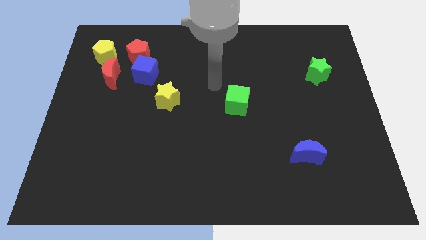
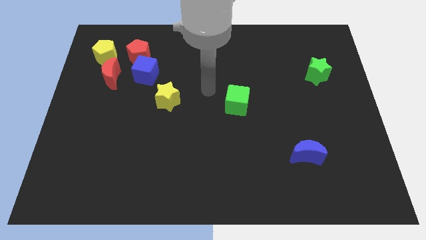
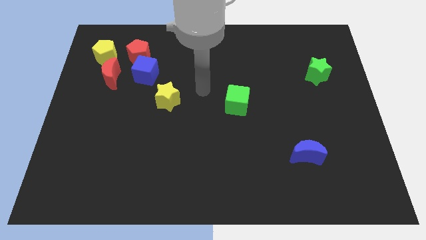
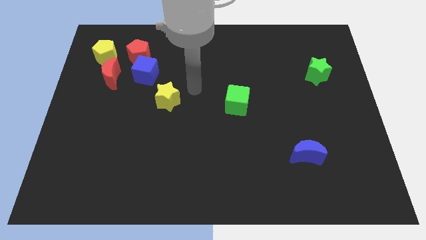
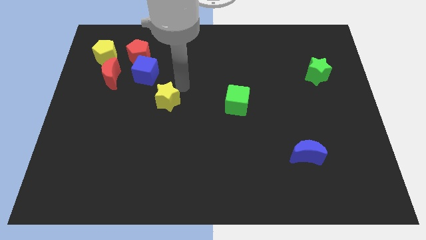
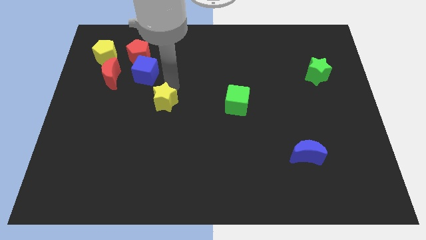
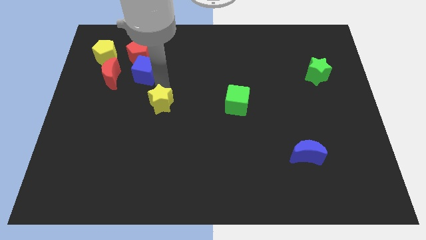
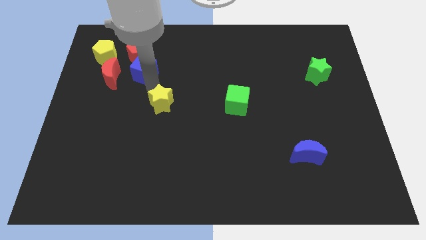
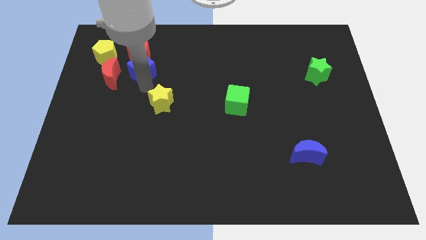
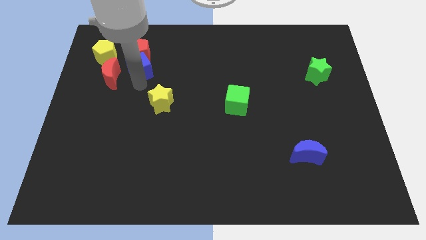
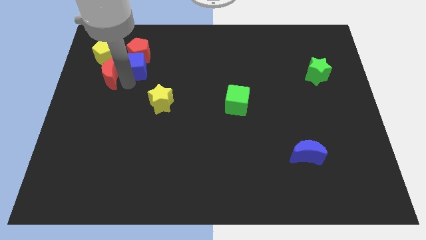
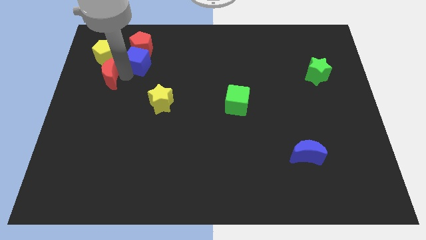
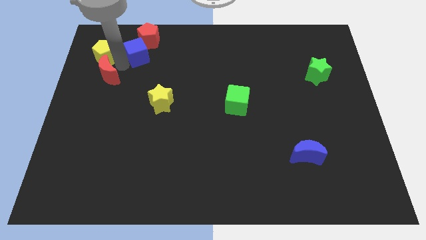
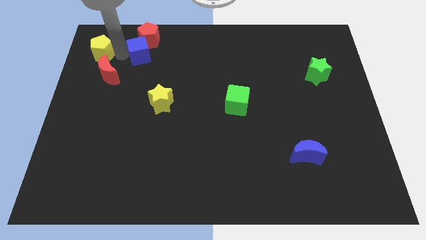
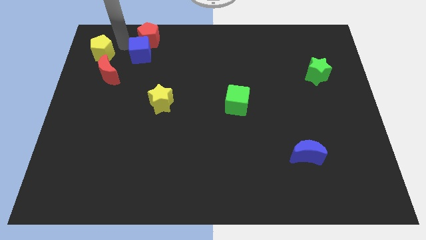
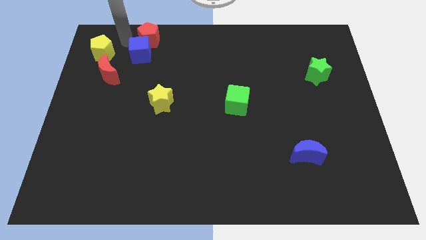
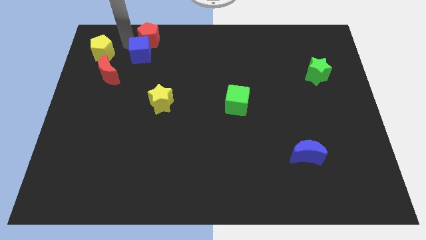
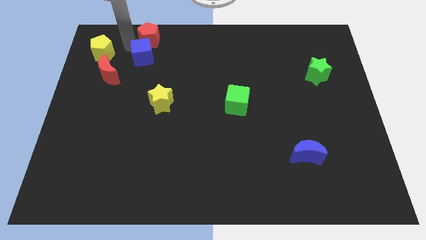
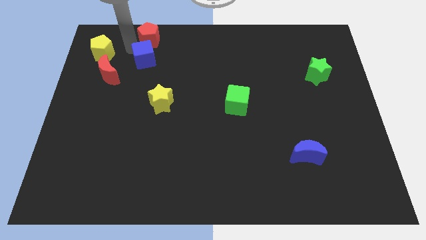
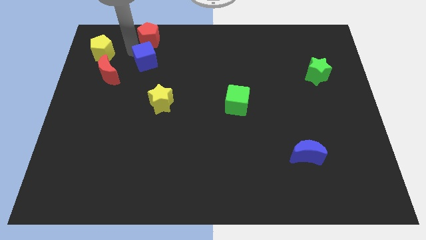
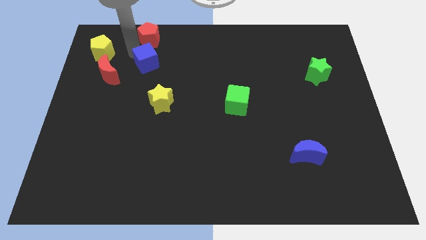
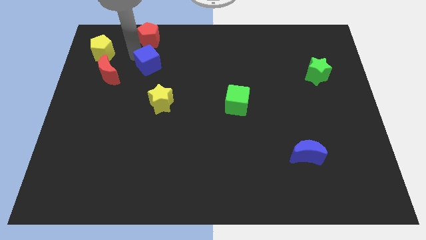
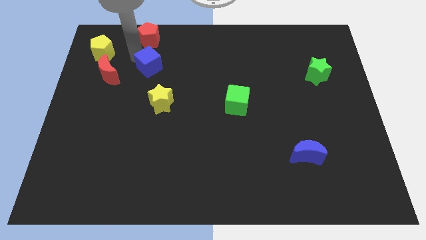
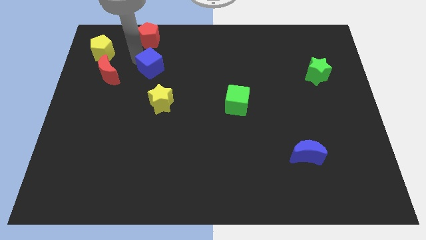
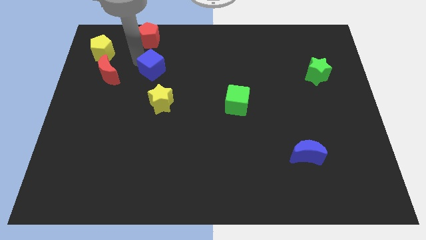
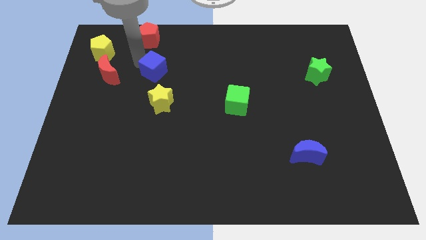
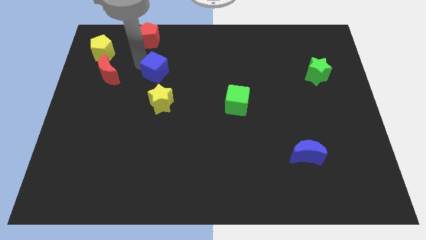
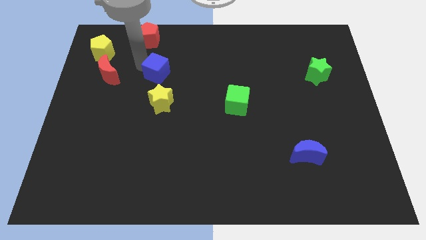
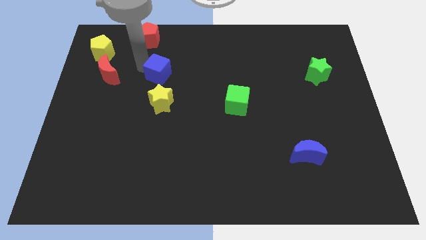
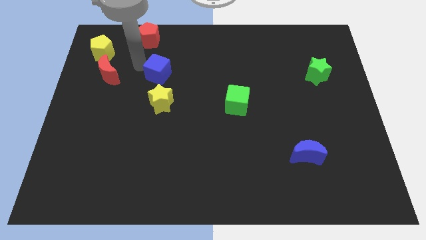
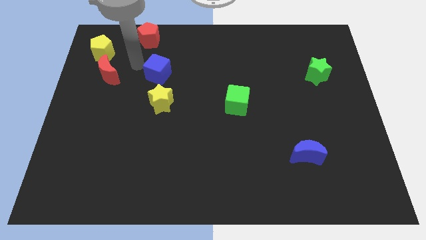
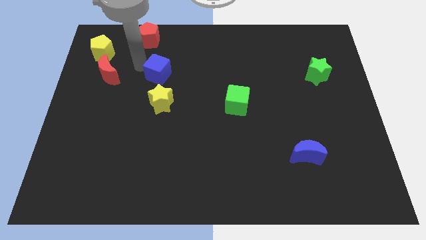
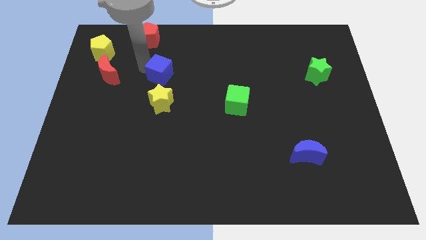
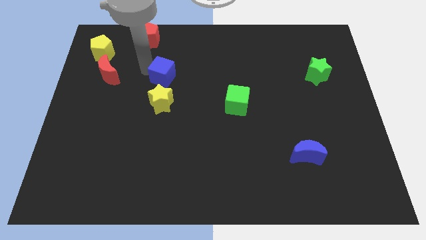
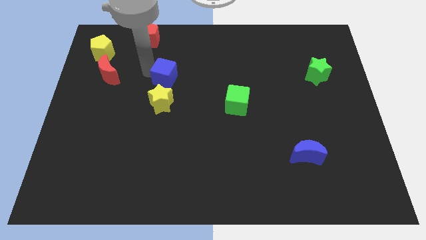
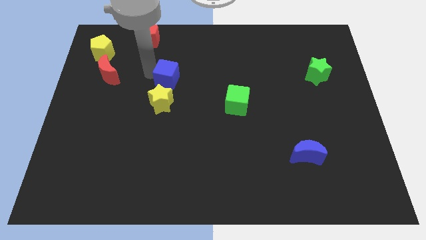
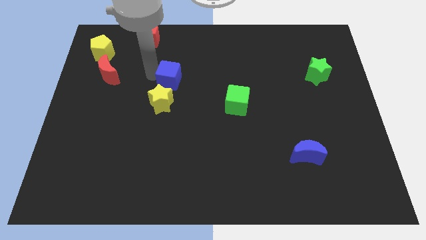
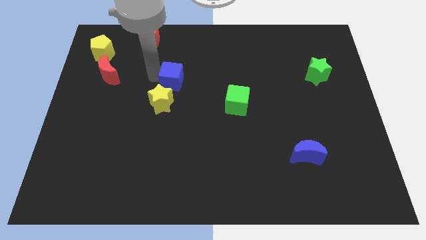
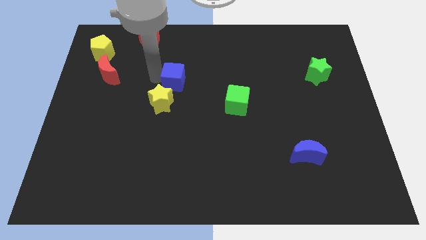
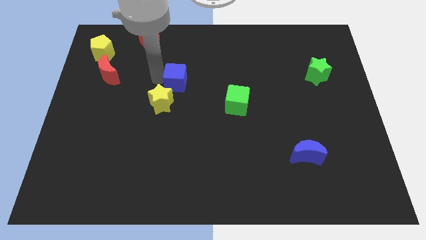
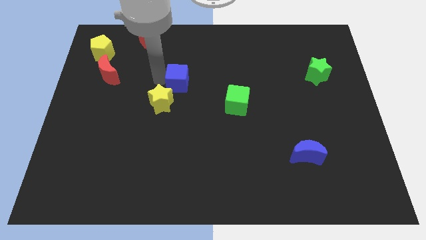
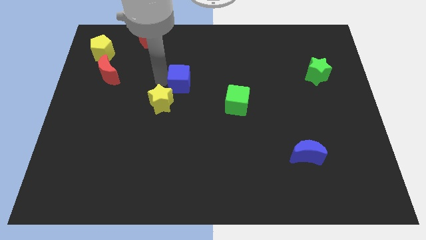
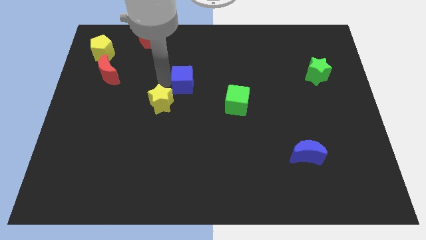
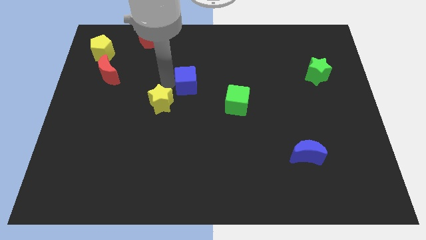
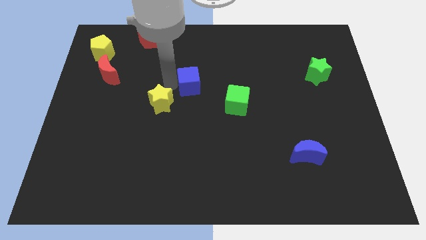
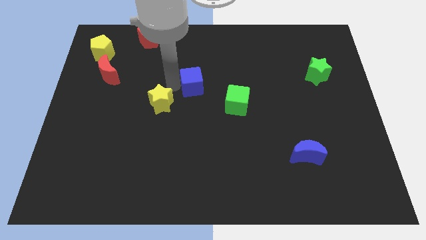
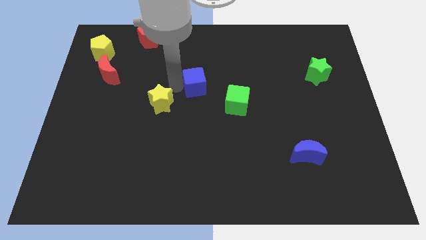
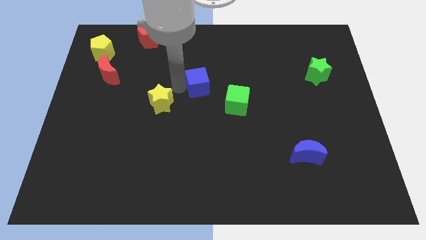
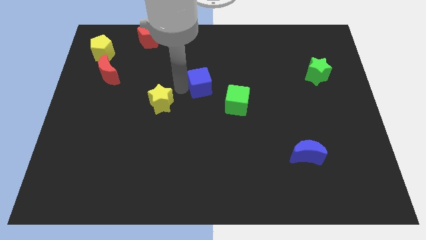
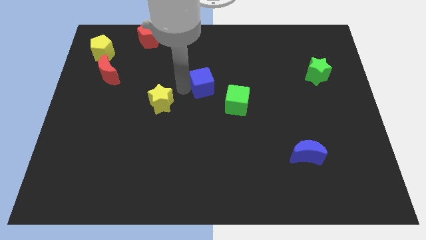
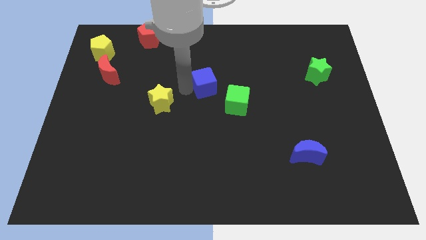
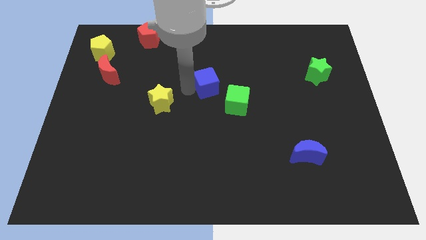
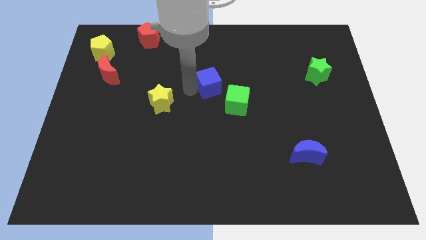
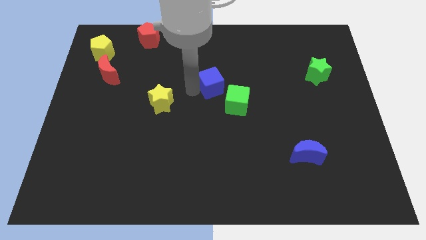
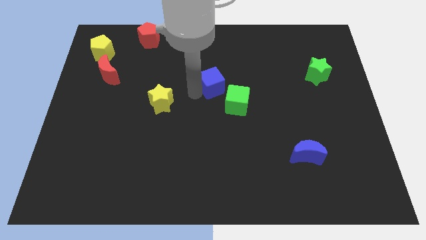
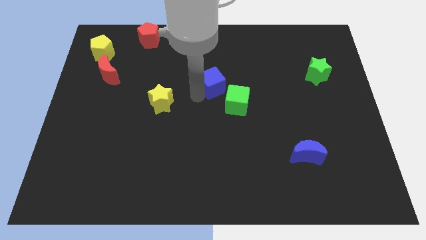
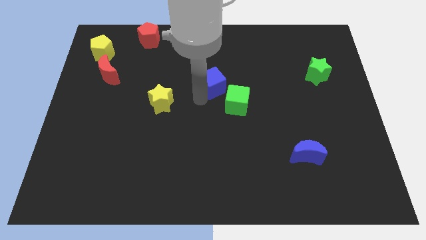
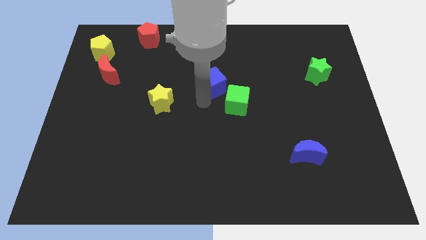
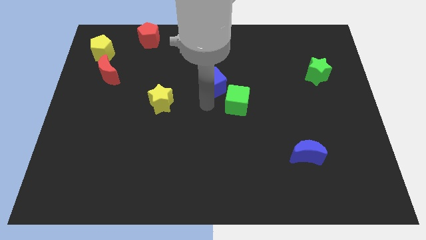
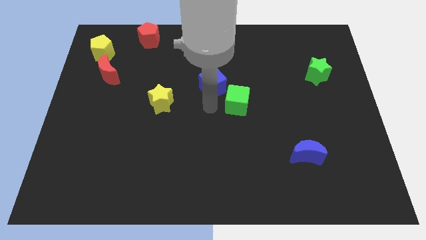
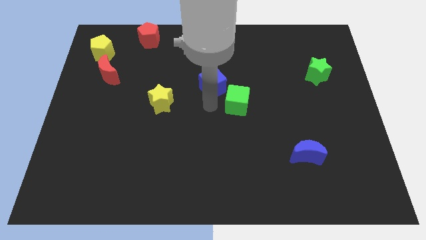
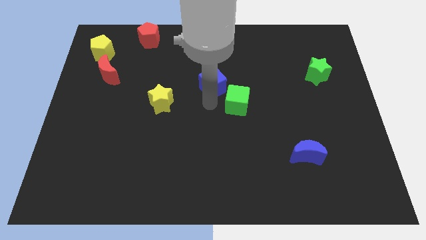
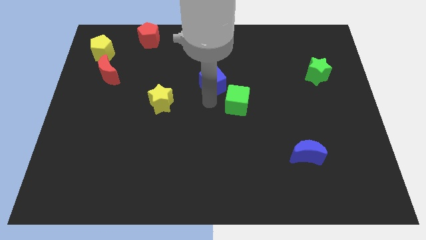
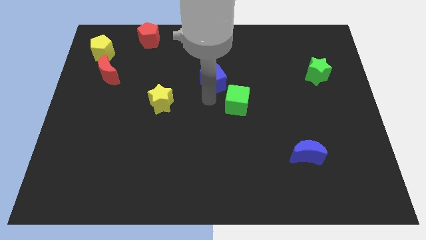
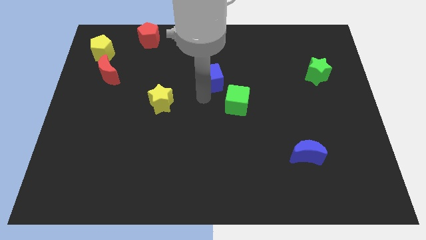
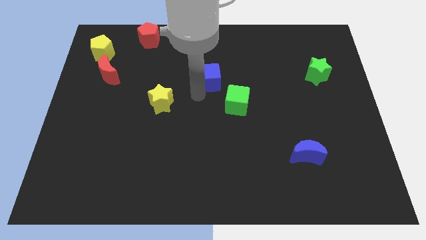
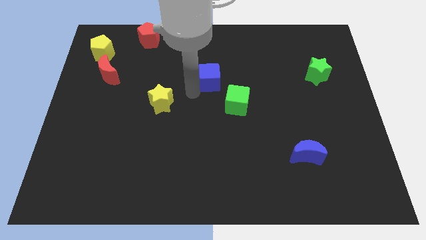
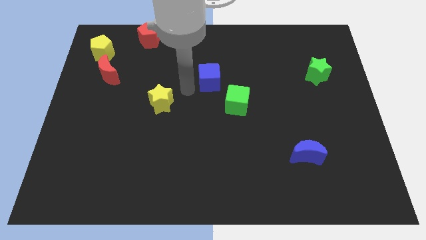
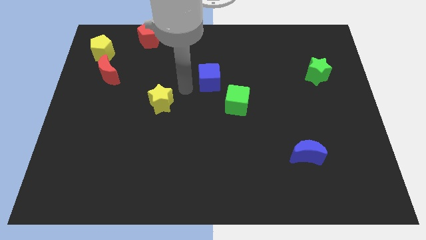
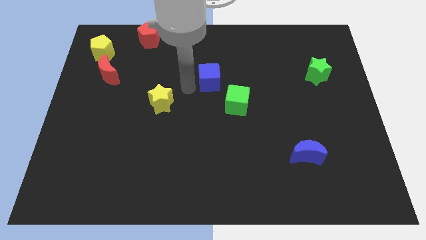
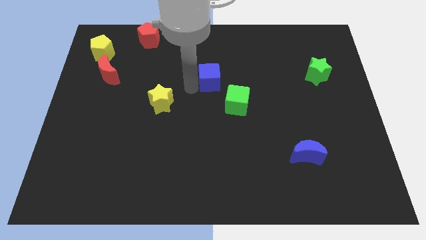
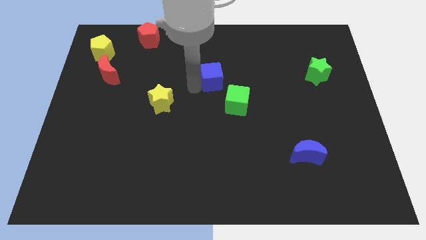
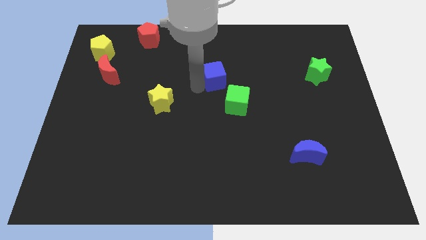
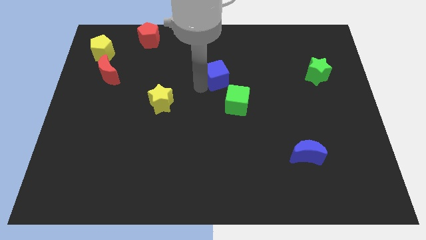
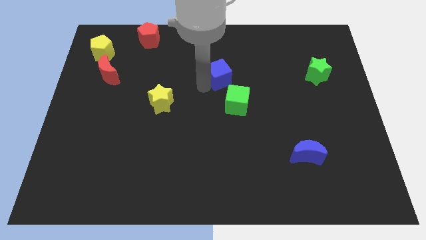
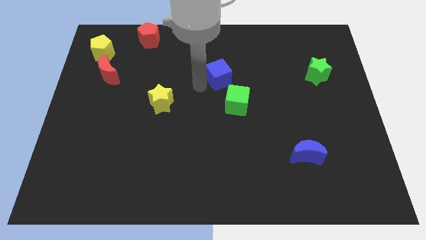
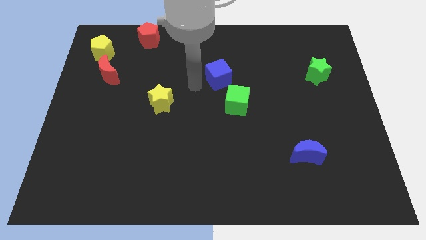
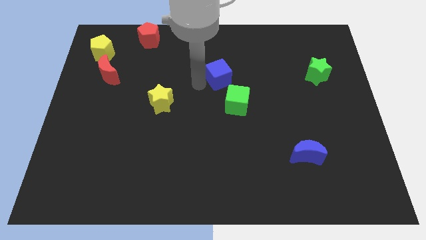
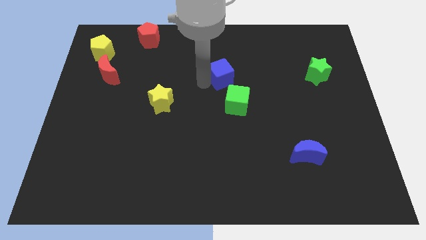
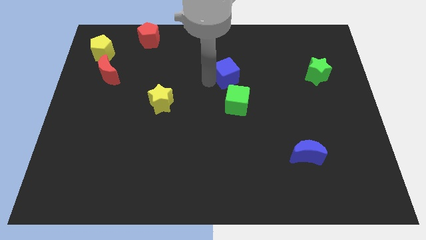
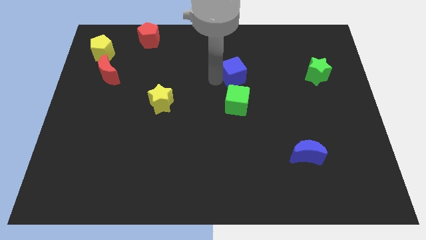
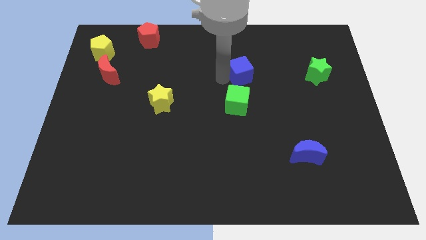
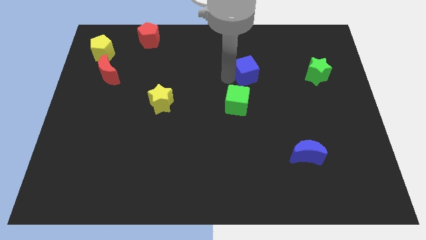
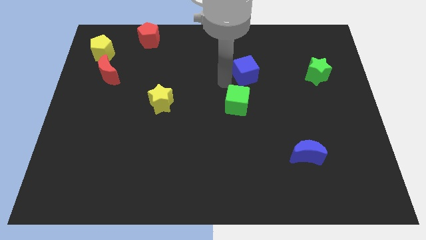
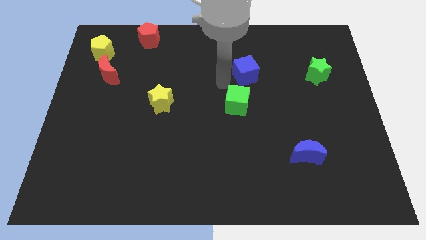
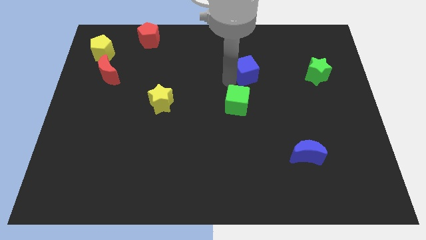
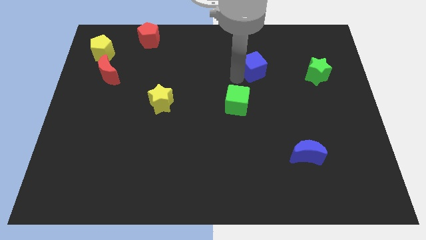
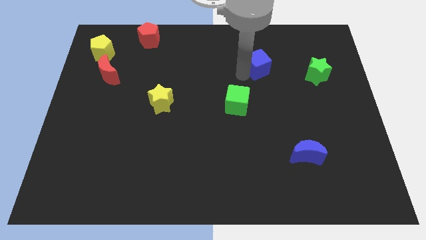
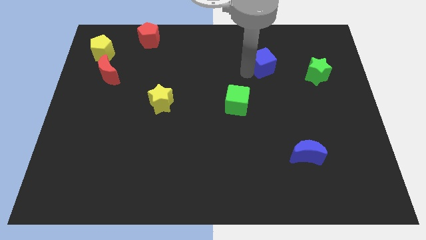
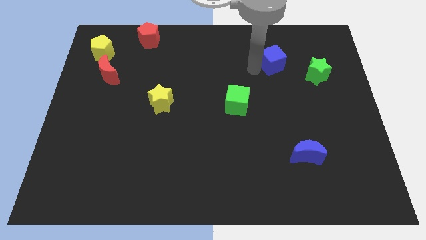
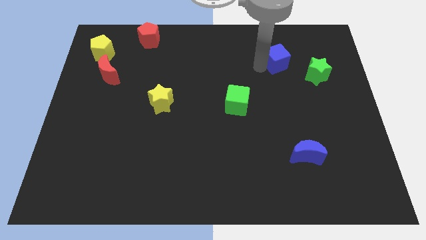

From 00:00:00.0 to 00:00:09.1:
move the blue cube to the top left of the green star
